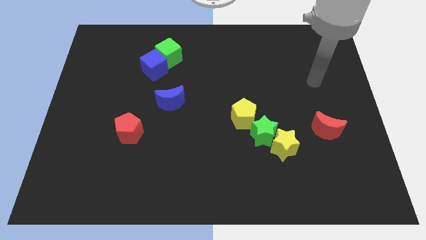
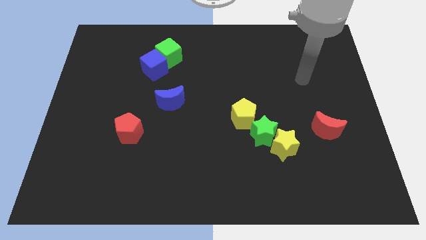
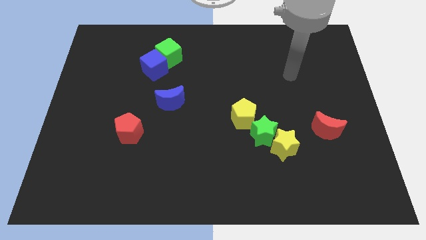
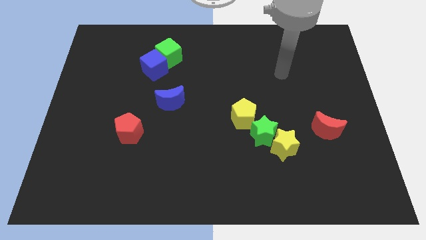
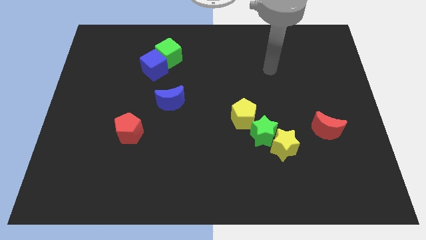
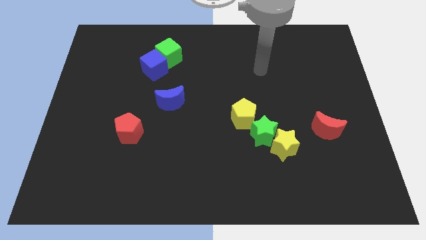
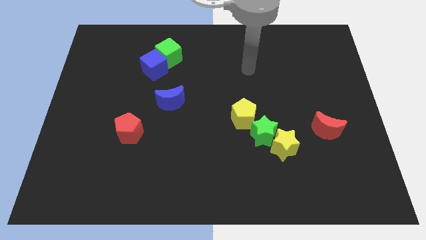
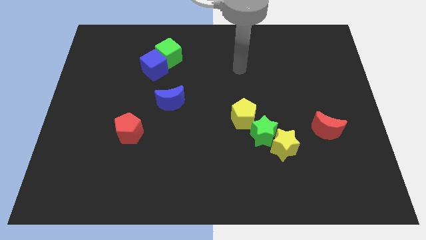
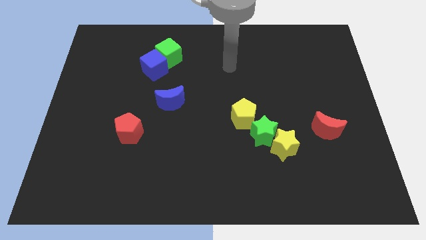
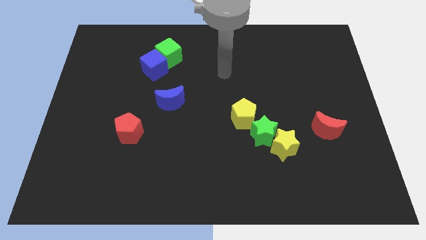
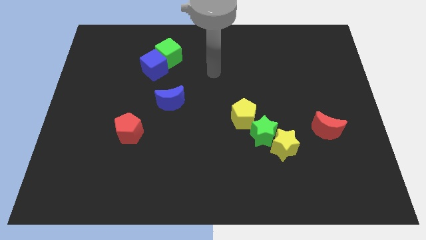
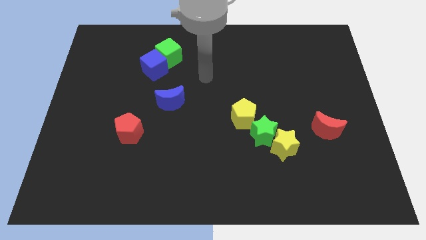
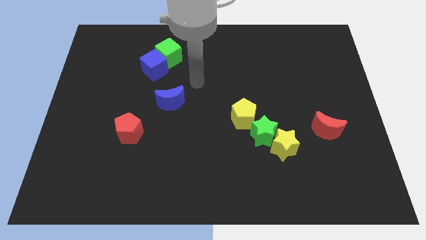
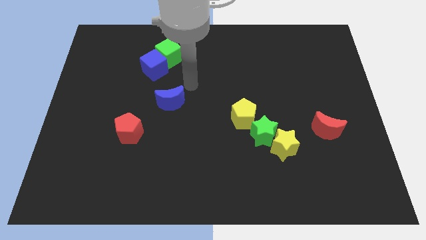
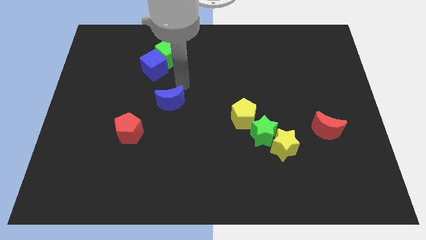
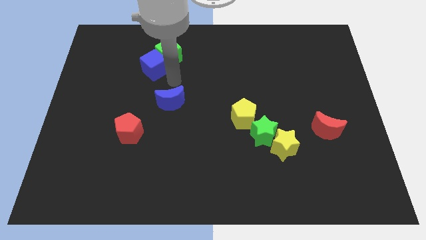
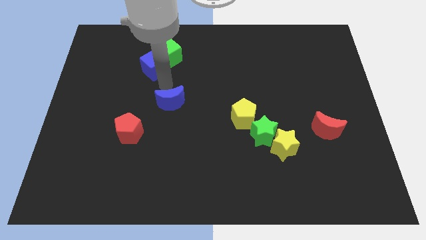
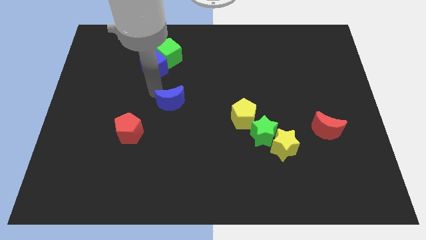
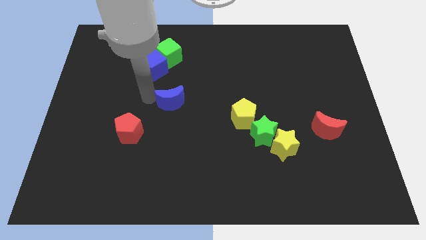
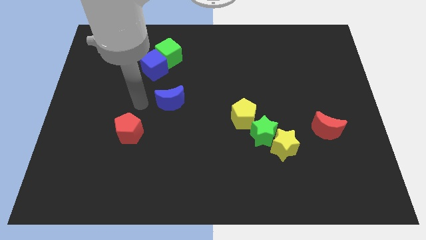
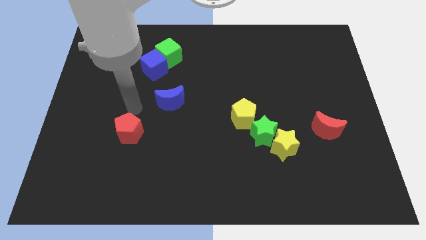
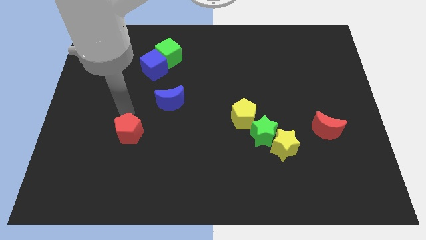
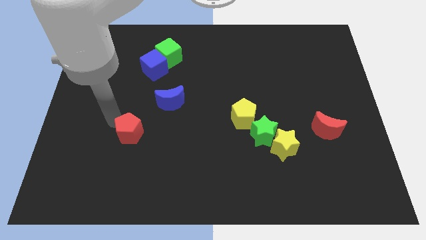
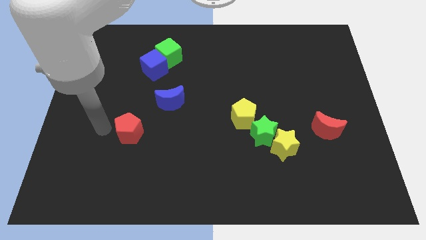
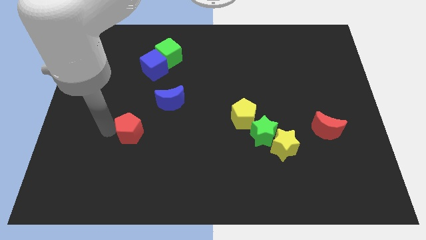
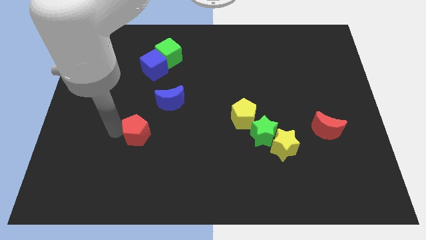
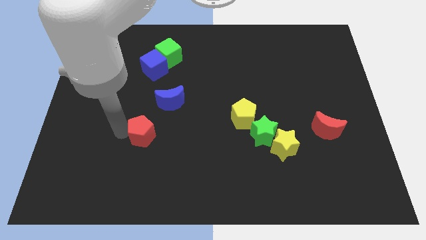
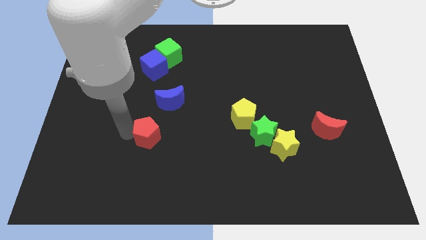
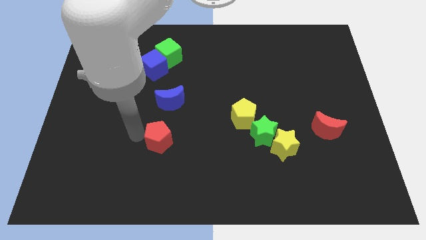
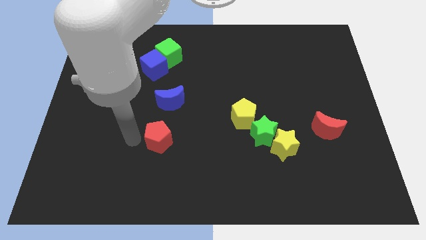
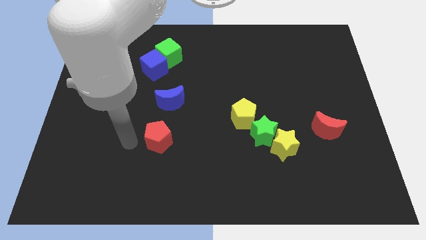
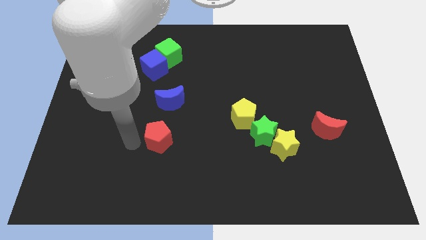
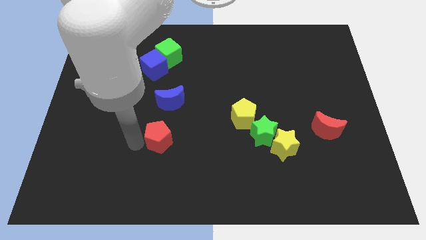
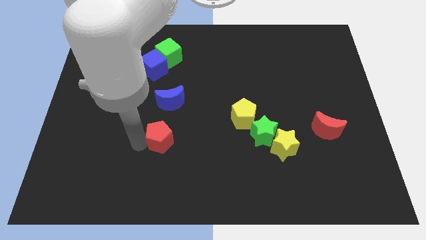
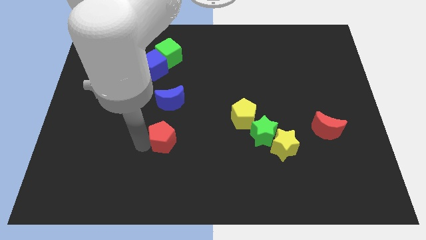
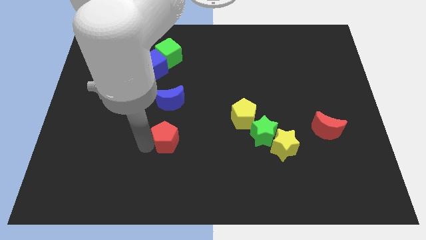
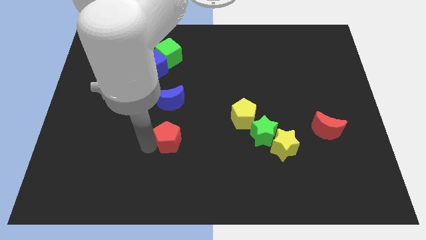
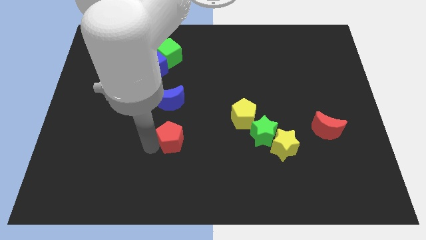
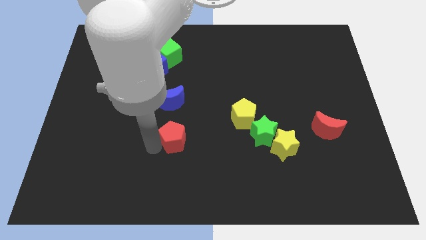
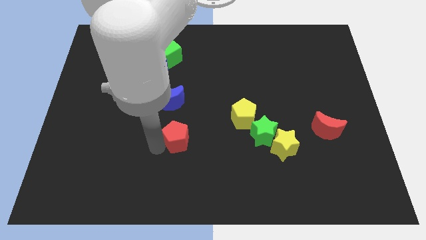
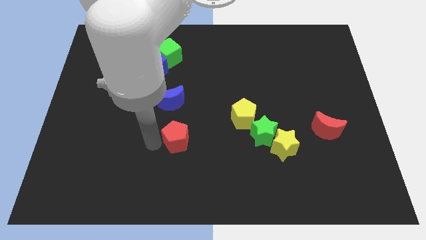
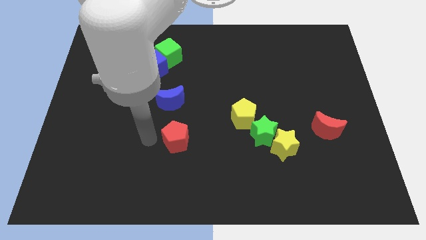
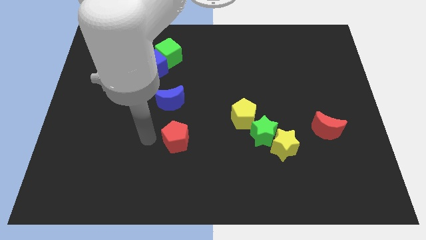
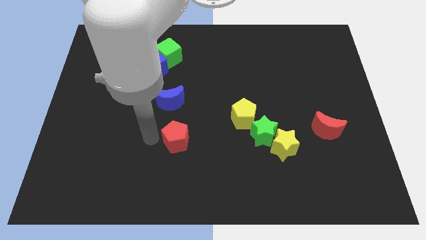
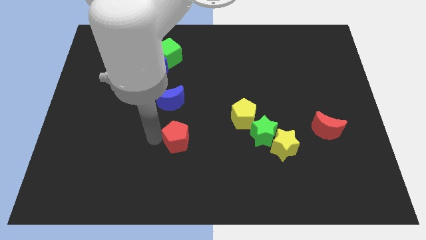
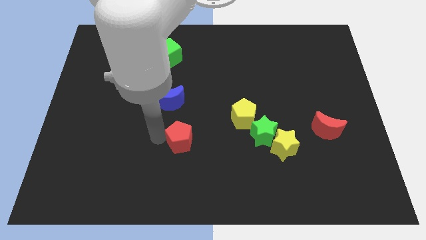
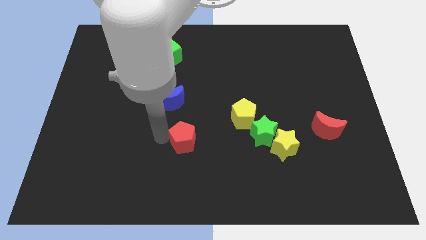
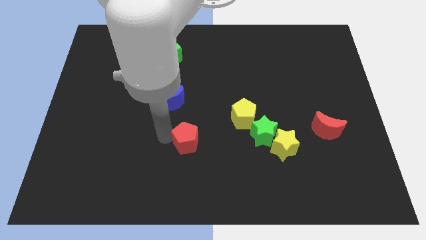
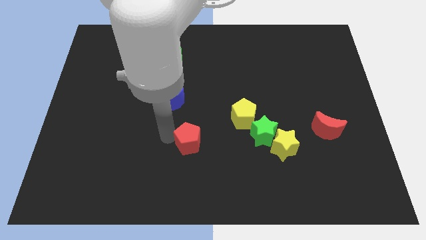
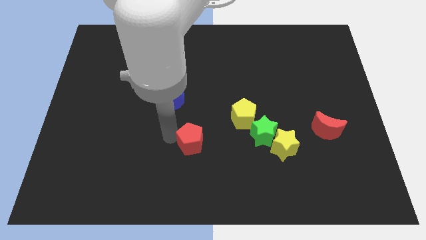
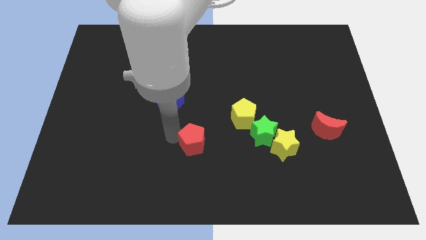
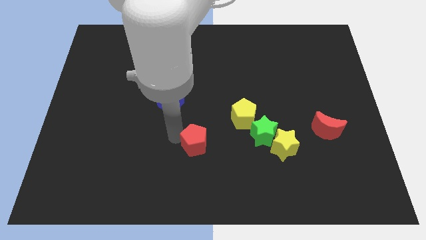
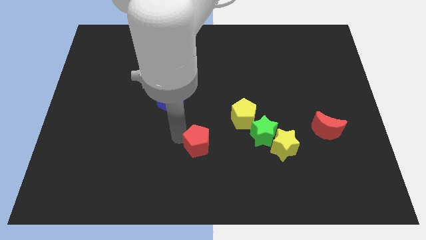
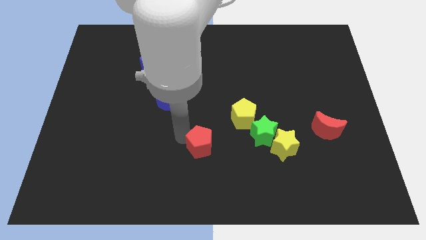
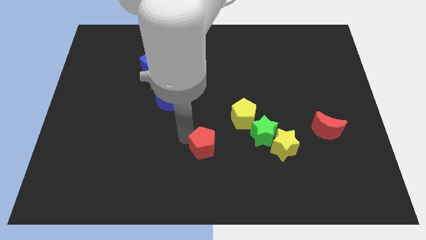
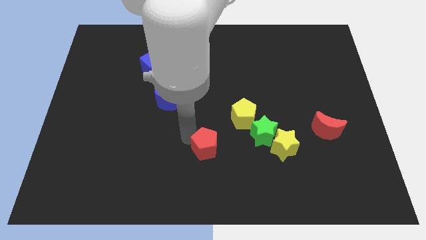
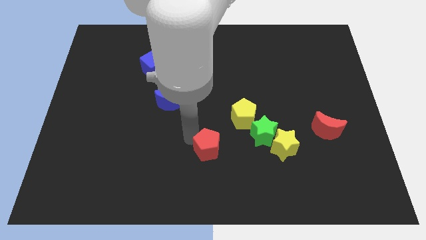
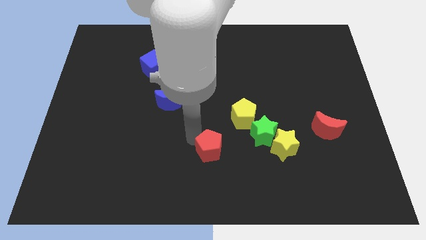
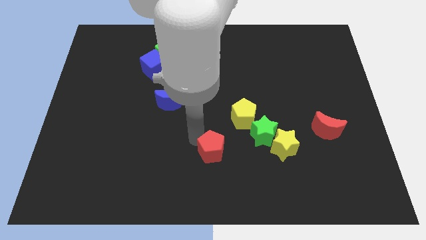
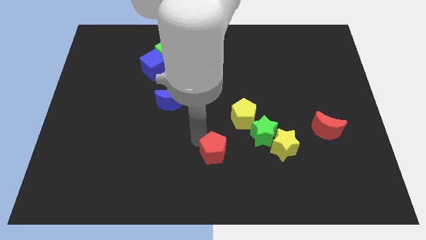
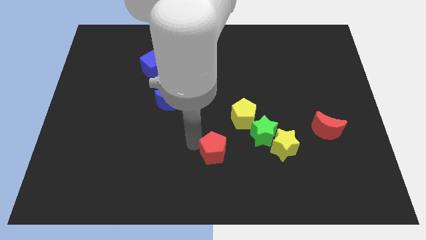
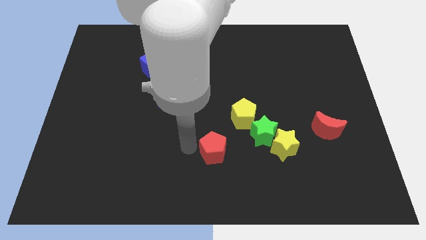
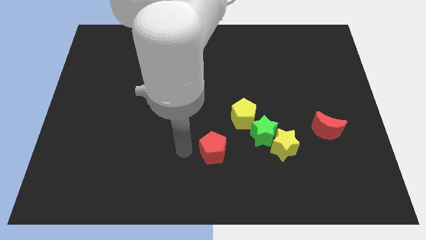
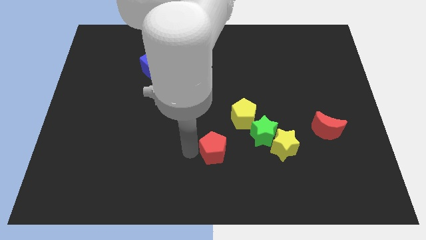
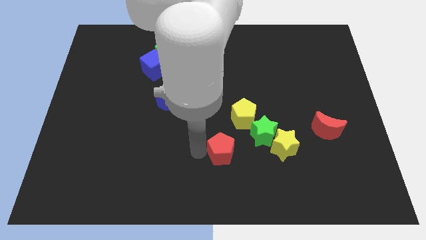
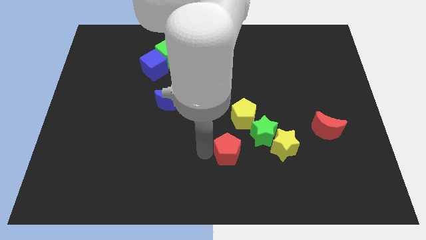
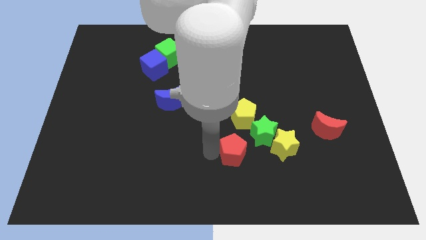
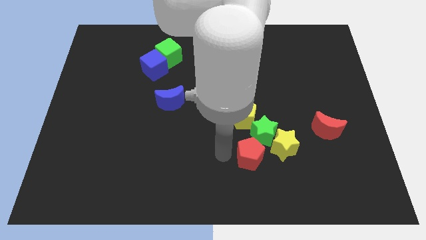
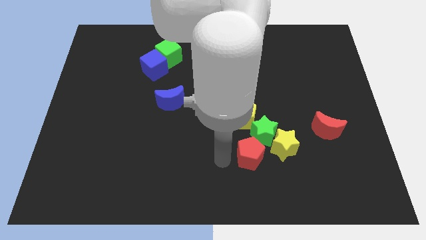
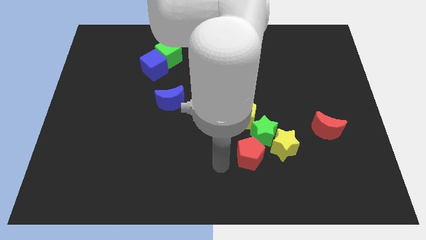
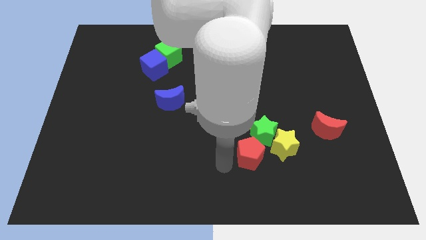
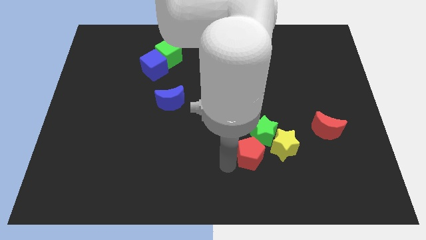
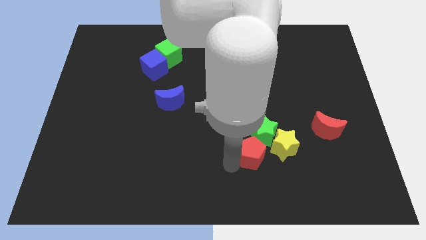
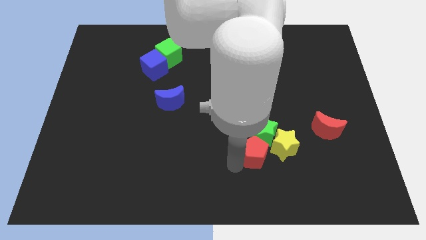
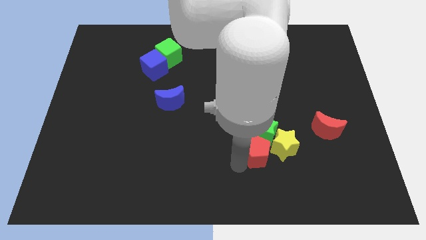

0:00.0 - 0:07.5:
push the red pentagon close to the yellow star
